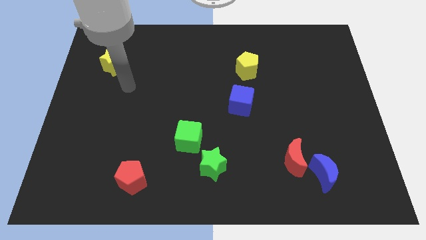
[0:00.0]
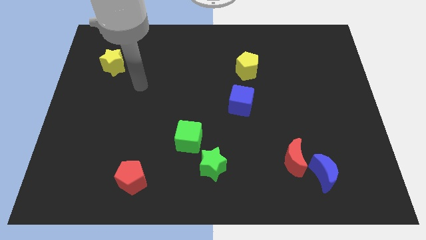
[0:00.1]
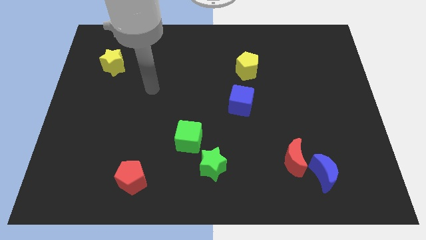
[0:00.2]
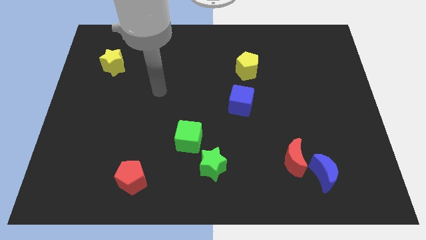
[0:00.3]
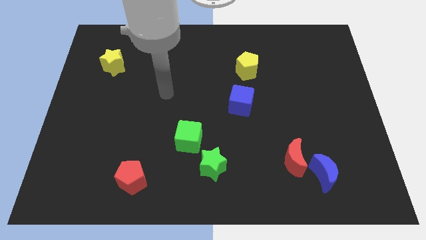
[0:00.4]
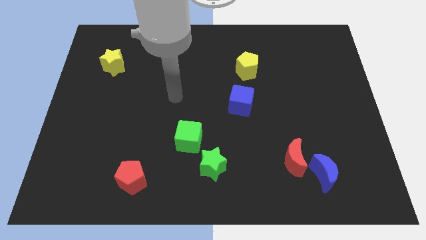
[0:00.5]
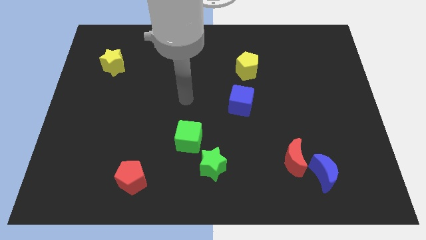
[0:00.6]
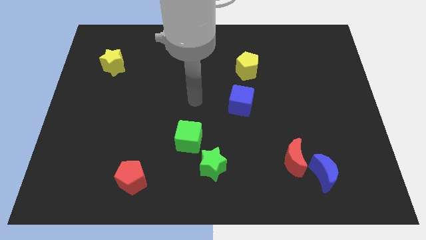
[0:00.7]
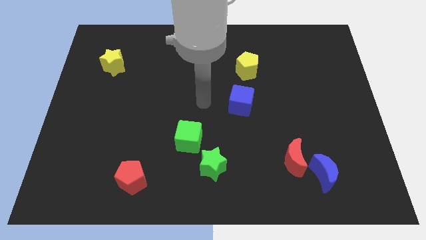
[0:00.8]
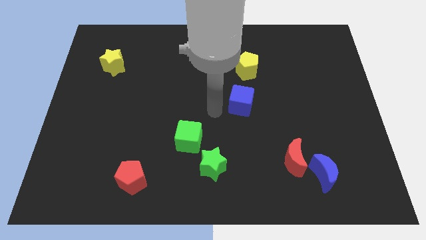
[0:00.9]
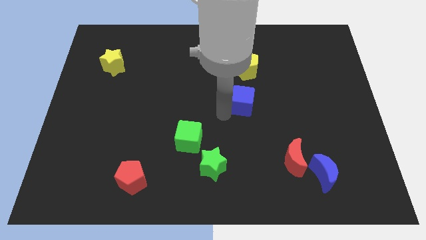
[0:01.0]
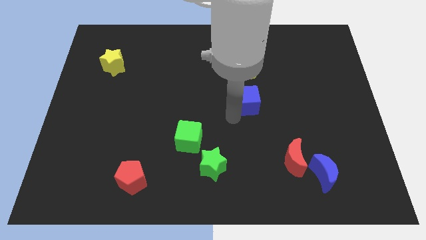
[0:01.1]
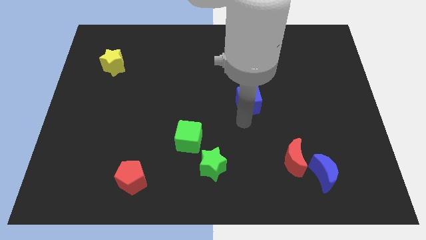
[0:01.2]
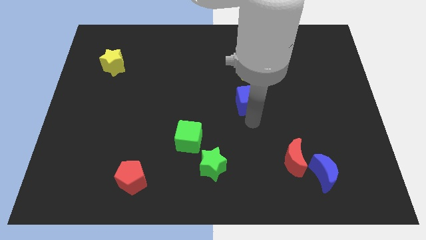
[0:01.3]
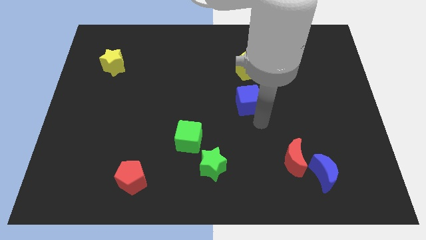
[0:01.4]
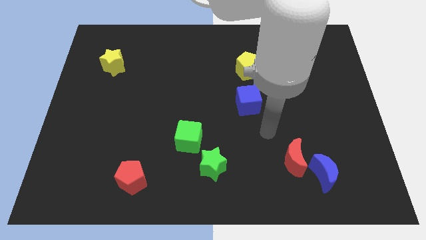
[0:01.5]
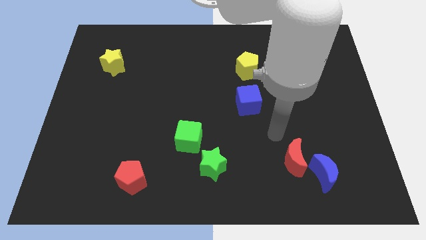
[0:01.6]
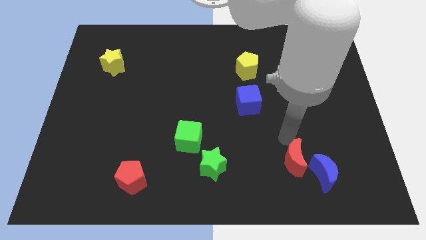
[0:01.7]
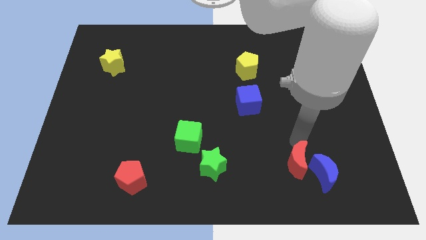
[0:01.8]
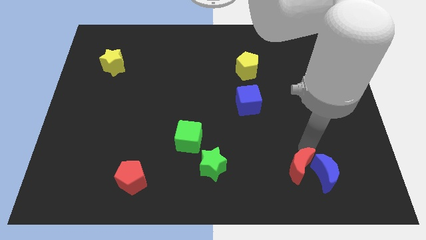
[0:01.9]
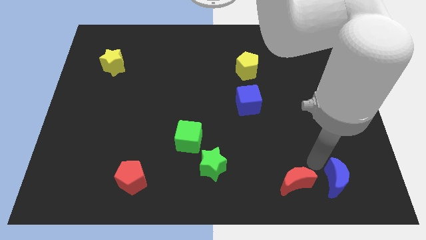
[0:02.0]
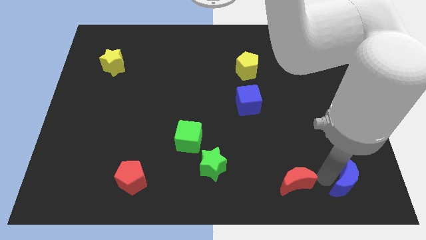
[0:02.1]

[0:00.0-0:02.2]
pull the red moon apart from the blue moon

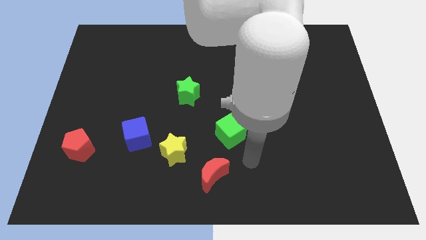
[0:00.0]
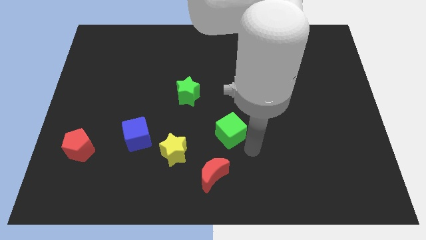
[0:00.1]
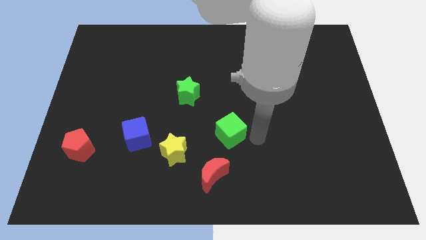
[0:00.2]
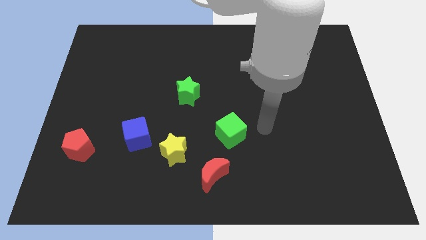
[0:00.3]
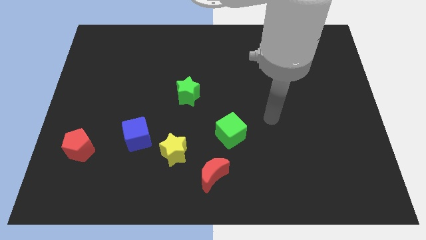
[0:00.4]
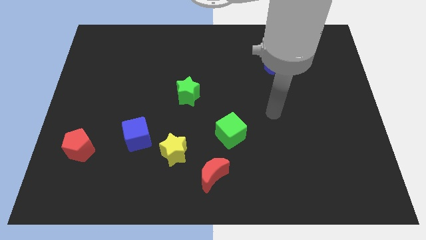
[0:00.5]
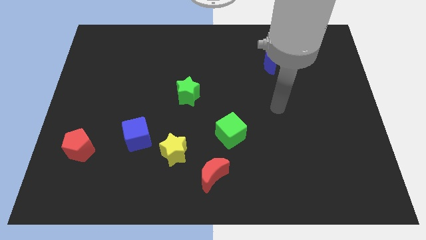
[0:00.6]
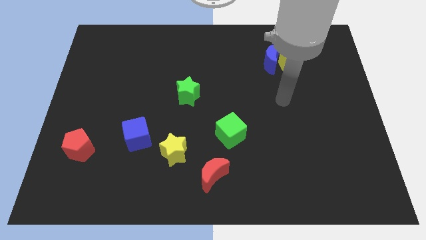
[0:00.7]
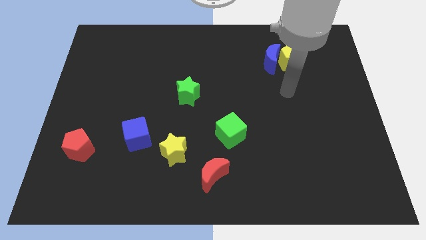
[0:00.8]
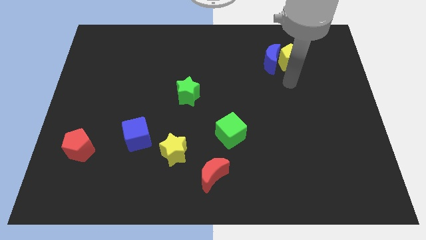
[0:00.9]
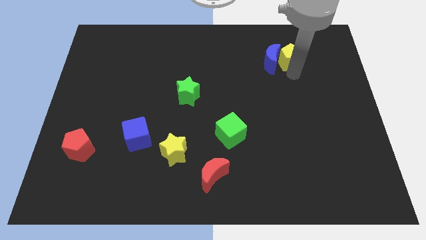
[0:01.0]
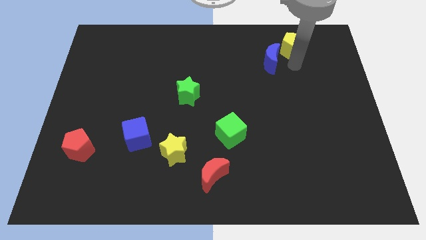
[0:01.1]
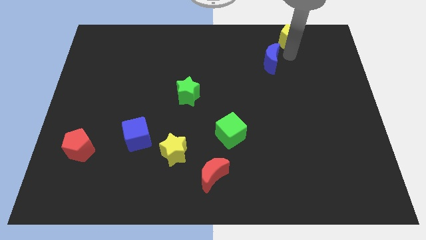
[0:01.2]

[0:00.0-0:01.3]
separate the blue moon from the yellow pentagon

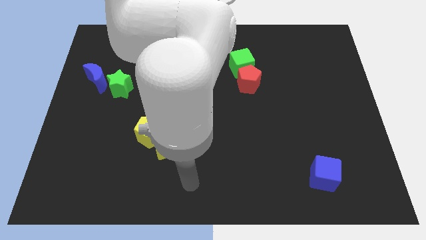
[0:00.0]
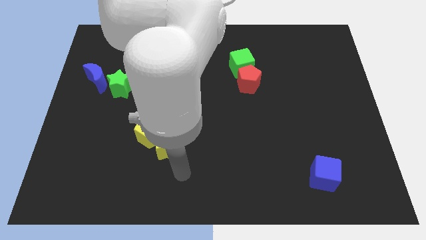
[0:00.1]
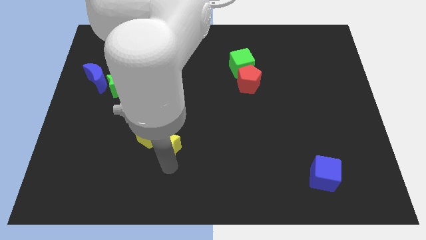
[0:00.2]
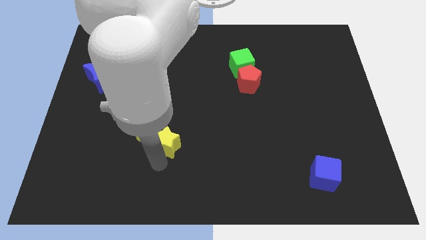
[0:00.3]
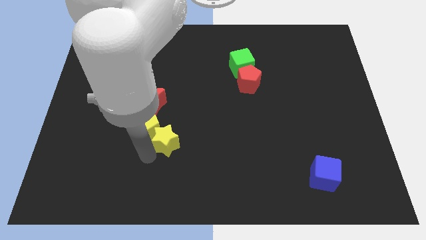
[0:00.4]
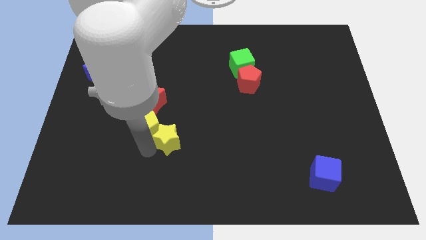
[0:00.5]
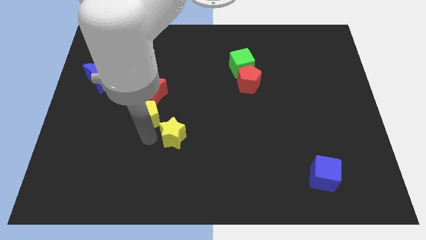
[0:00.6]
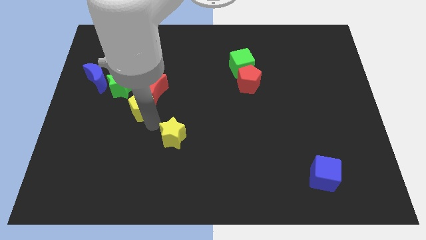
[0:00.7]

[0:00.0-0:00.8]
move the yellow star away from the yellow pentagon

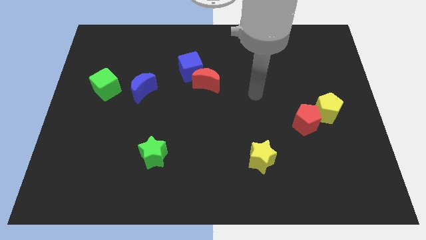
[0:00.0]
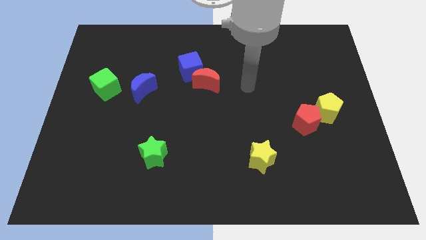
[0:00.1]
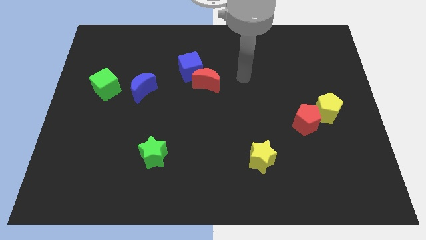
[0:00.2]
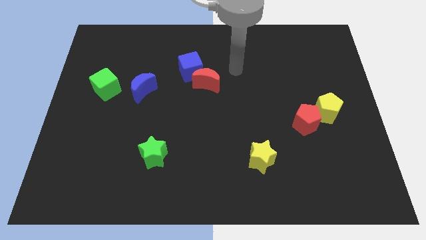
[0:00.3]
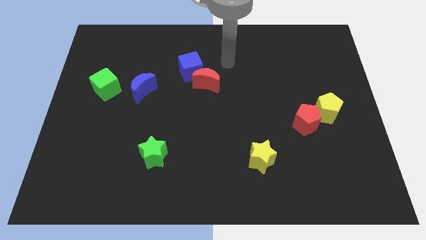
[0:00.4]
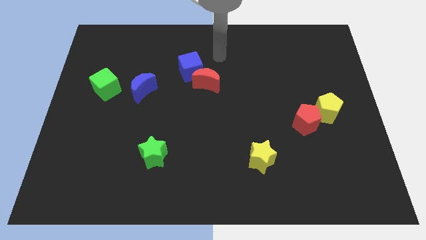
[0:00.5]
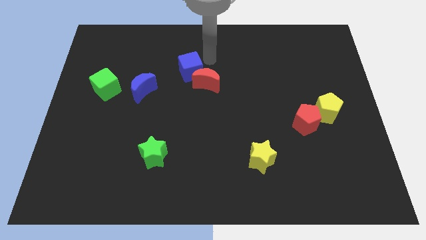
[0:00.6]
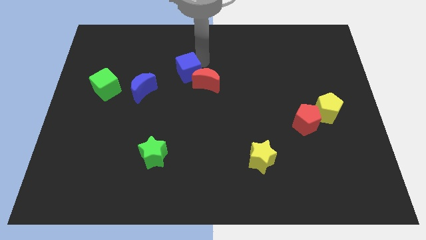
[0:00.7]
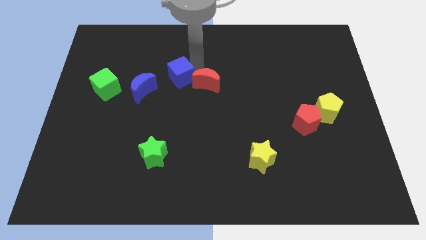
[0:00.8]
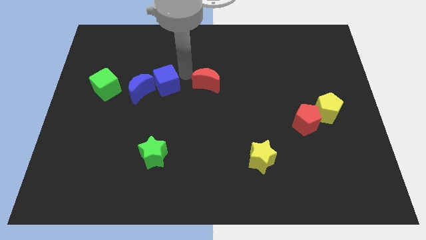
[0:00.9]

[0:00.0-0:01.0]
move the red moon away from the blue cube

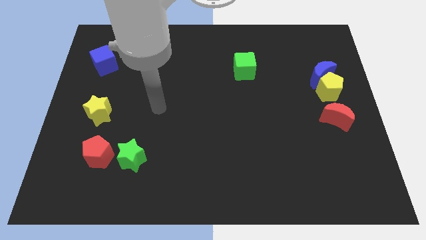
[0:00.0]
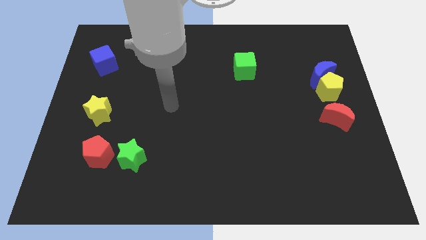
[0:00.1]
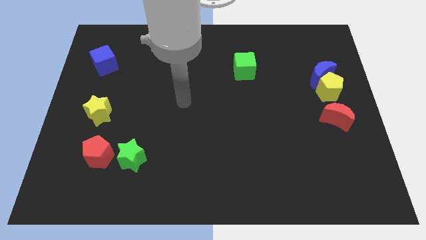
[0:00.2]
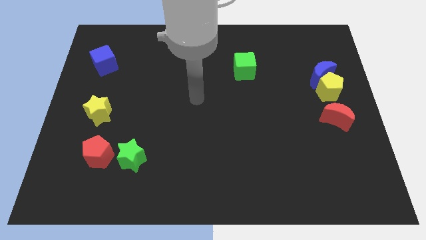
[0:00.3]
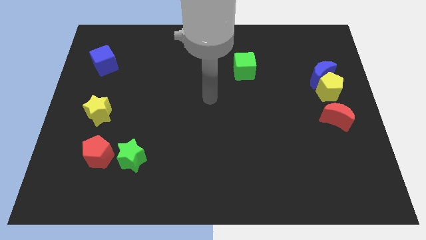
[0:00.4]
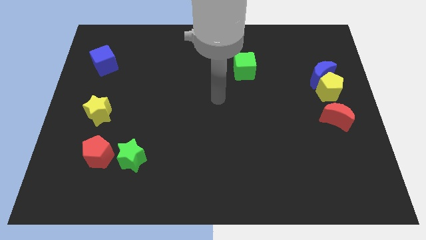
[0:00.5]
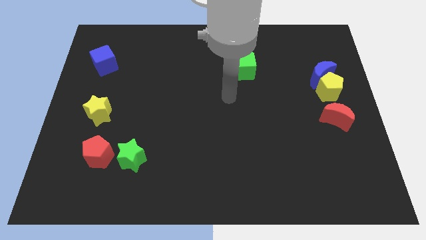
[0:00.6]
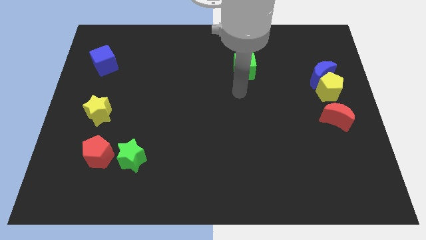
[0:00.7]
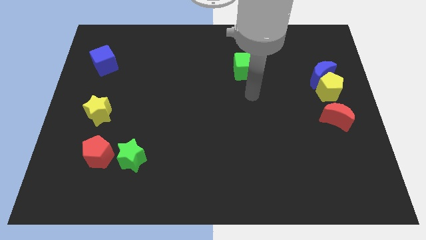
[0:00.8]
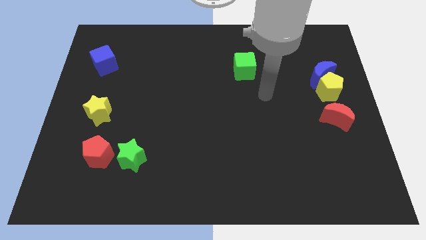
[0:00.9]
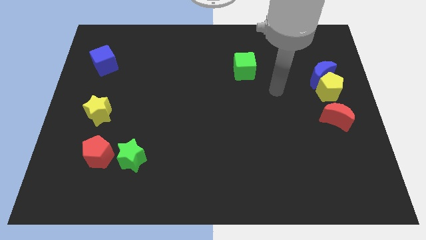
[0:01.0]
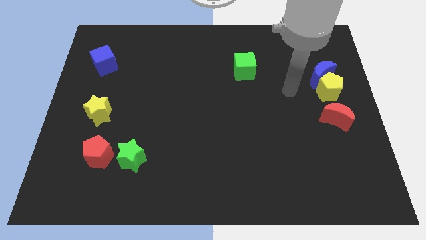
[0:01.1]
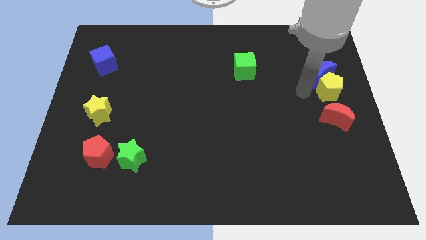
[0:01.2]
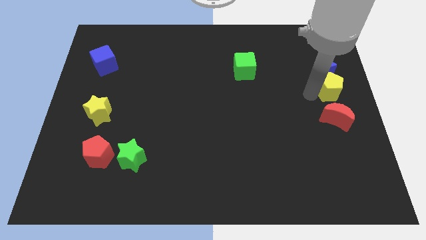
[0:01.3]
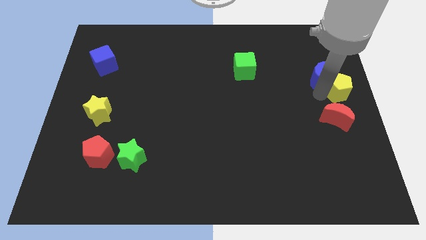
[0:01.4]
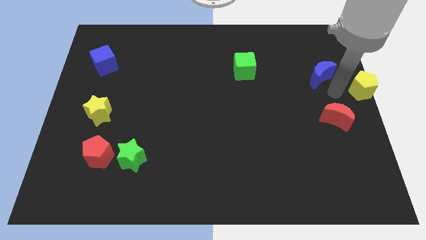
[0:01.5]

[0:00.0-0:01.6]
move the blue moon away from the yellow pentagon

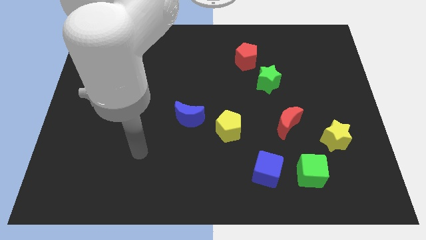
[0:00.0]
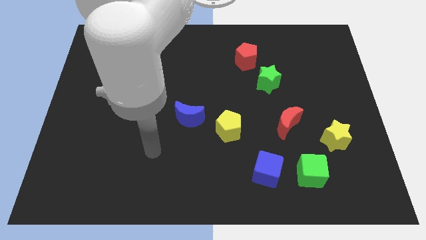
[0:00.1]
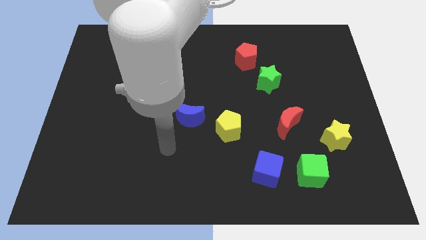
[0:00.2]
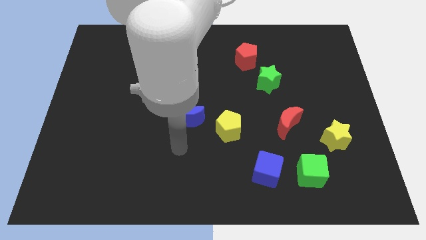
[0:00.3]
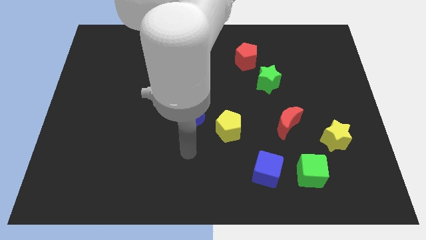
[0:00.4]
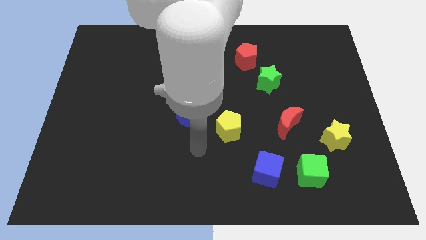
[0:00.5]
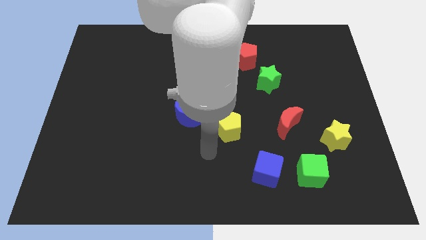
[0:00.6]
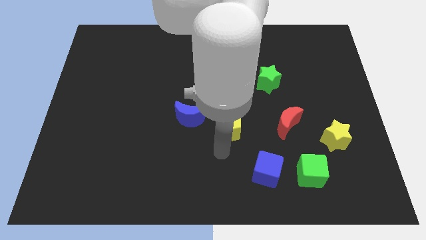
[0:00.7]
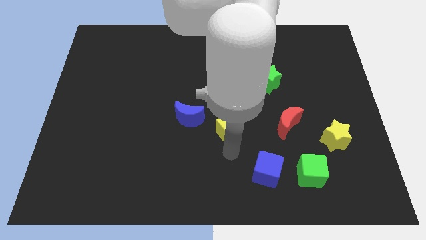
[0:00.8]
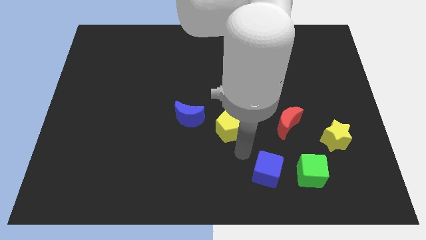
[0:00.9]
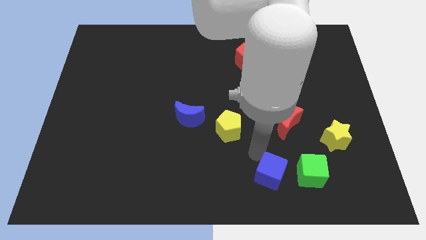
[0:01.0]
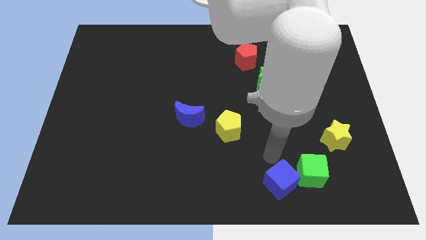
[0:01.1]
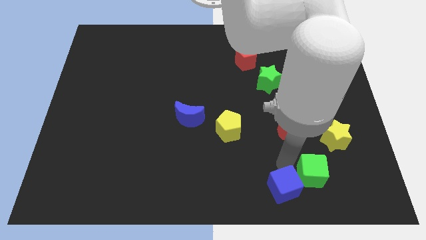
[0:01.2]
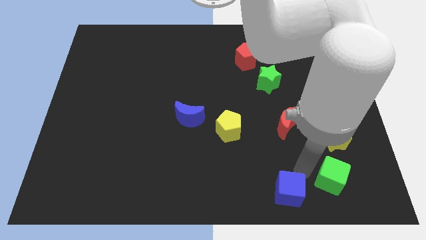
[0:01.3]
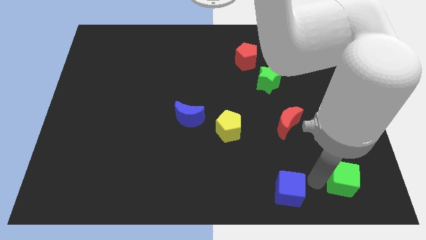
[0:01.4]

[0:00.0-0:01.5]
move the blue cube away from the green cube

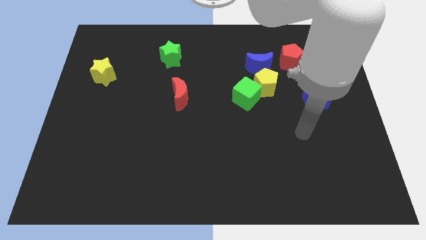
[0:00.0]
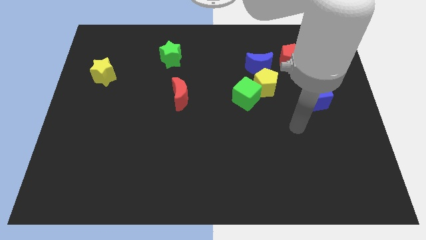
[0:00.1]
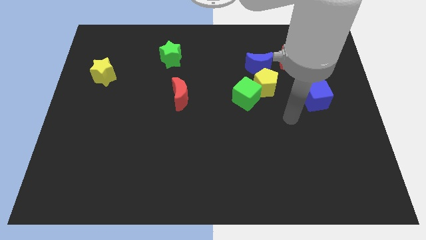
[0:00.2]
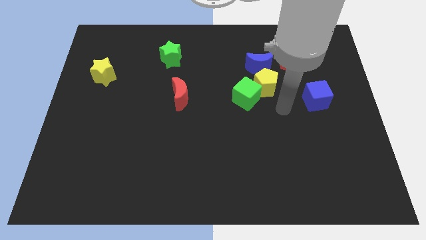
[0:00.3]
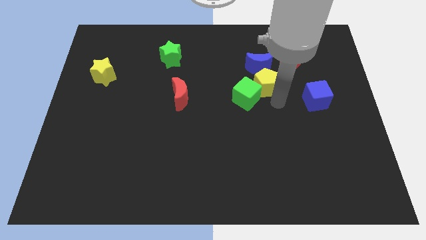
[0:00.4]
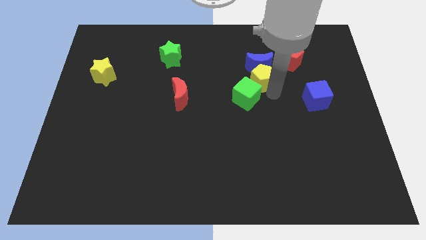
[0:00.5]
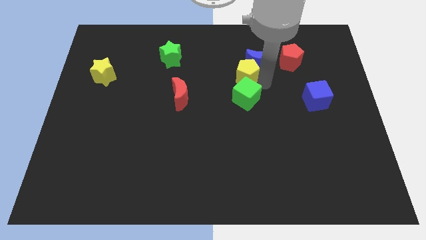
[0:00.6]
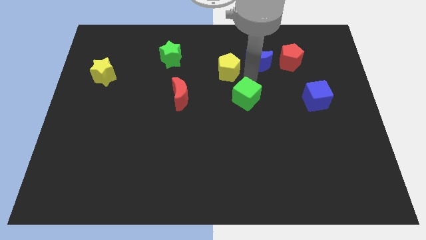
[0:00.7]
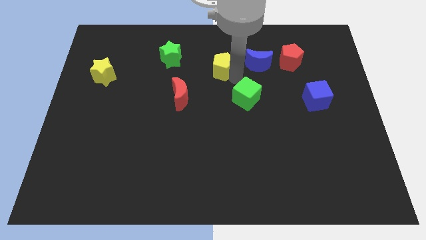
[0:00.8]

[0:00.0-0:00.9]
separate the green cube from the yellow pentagon
